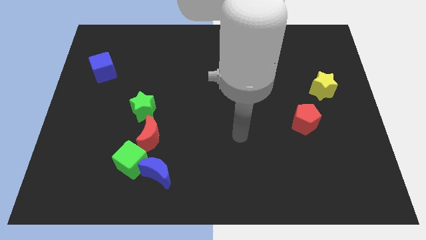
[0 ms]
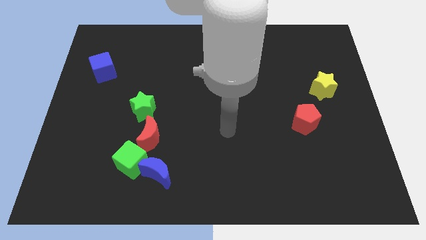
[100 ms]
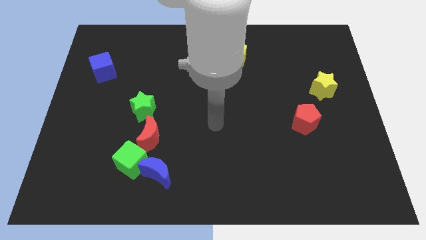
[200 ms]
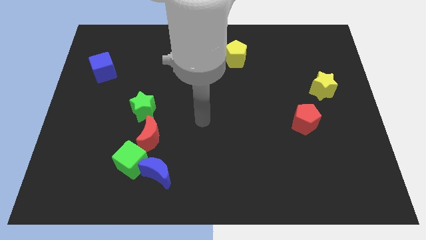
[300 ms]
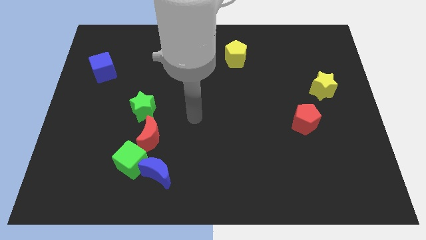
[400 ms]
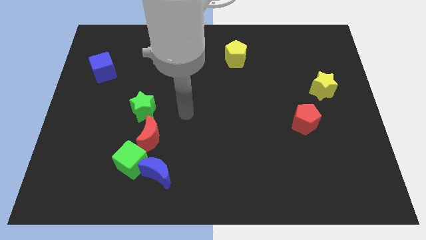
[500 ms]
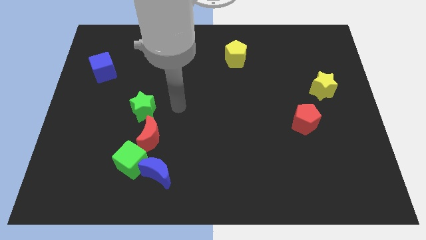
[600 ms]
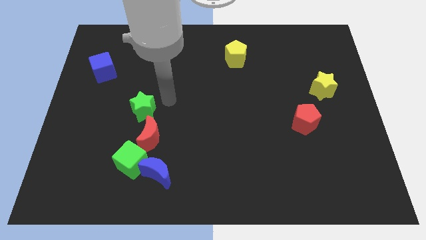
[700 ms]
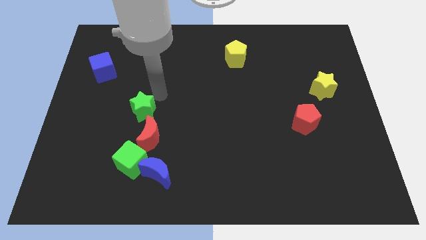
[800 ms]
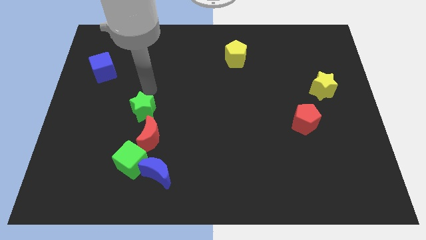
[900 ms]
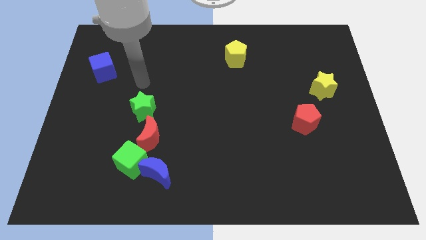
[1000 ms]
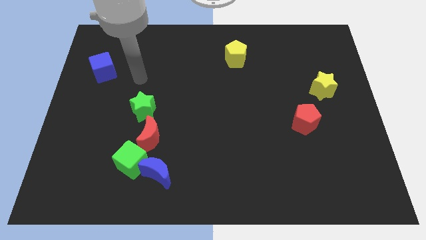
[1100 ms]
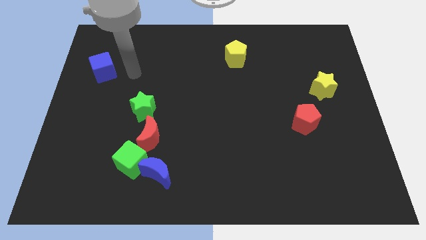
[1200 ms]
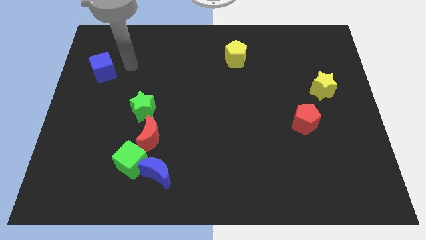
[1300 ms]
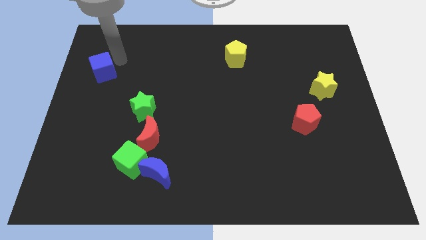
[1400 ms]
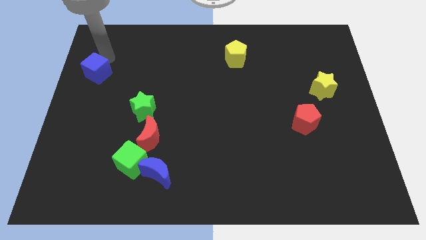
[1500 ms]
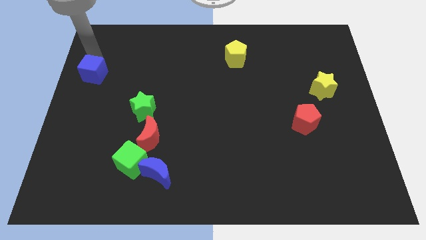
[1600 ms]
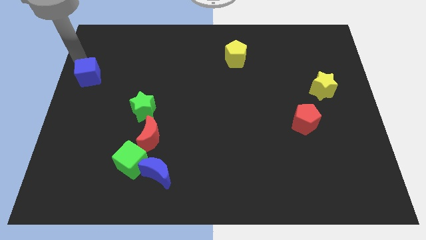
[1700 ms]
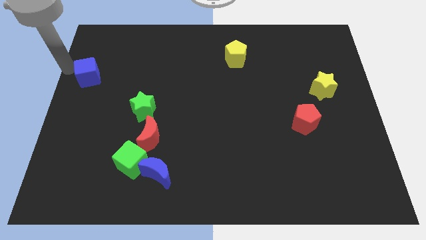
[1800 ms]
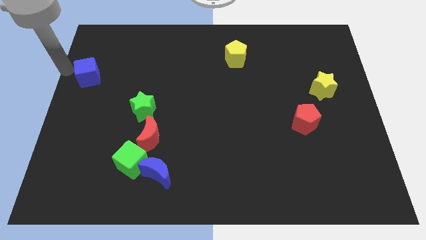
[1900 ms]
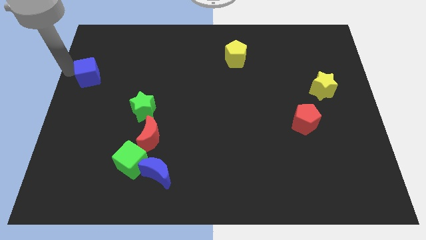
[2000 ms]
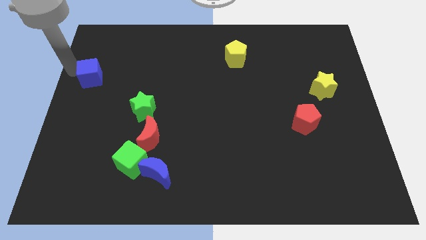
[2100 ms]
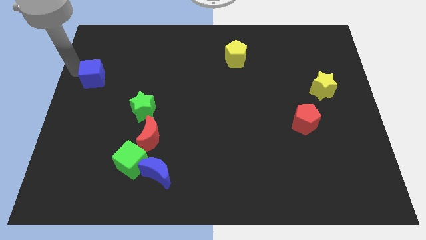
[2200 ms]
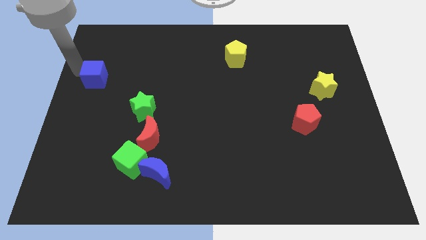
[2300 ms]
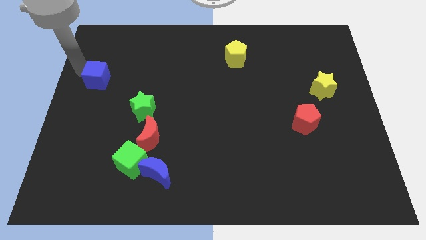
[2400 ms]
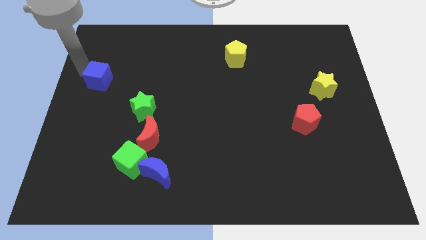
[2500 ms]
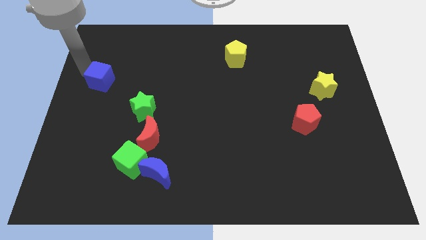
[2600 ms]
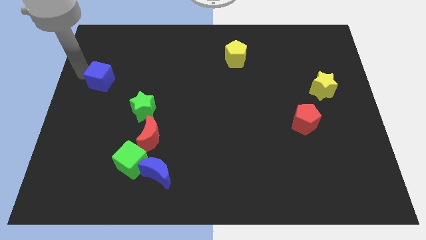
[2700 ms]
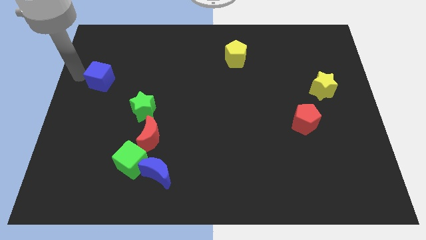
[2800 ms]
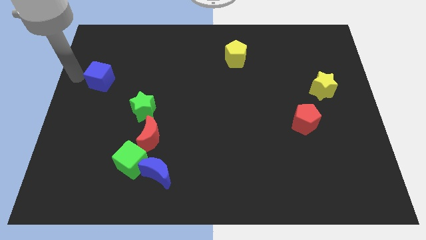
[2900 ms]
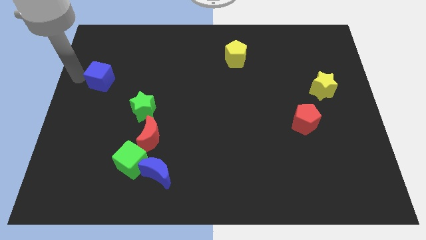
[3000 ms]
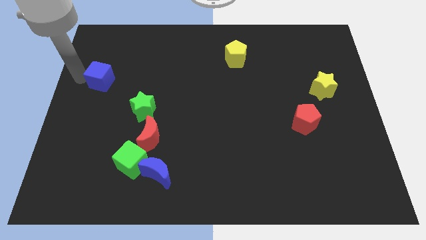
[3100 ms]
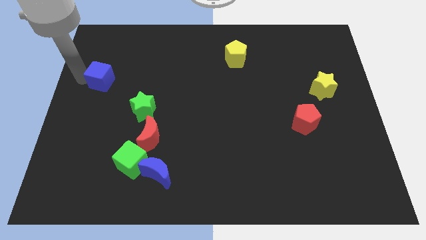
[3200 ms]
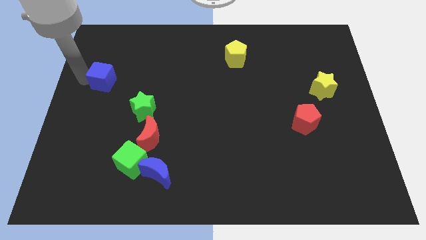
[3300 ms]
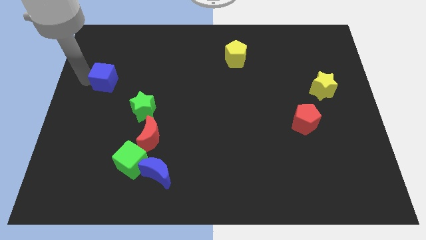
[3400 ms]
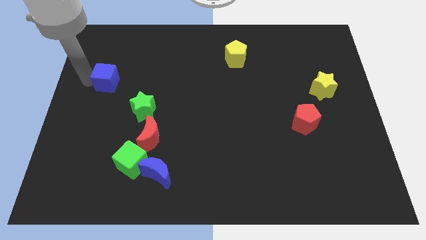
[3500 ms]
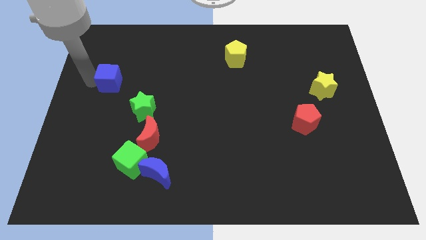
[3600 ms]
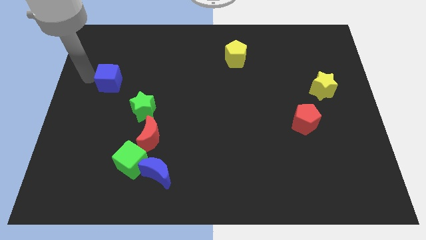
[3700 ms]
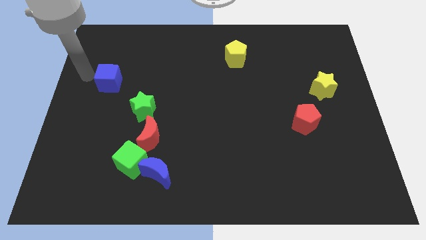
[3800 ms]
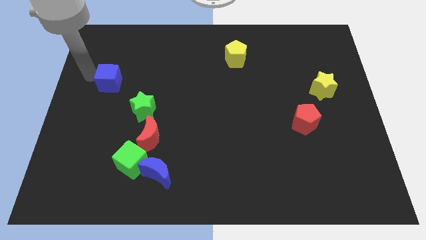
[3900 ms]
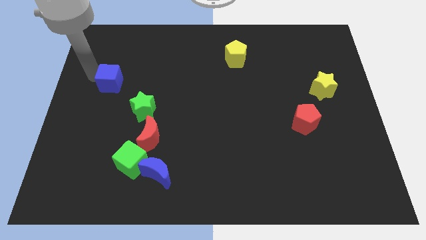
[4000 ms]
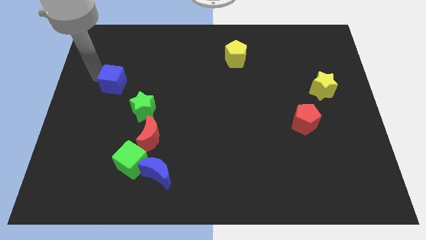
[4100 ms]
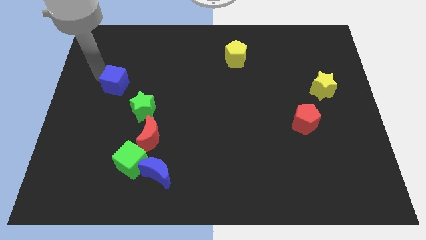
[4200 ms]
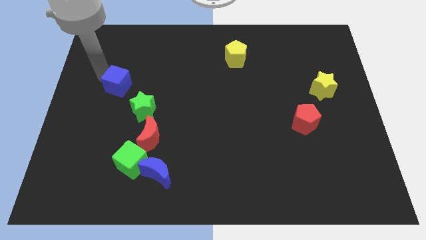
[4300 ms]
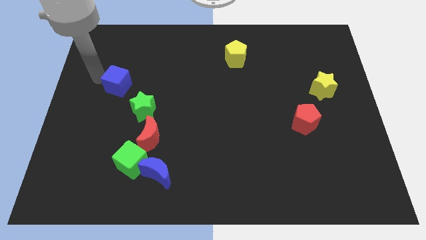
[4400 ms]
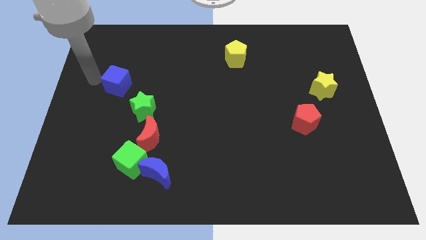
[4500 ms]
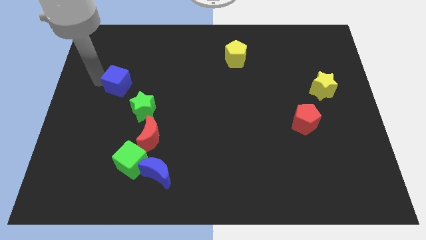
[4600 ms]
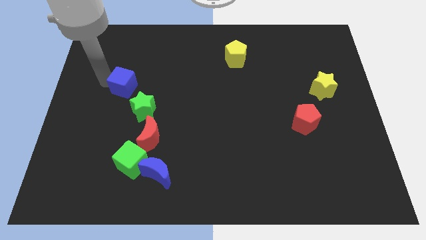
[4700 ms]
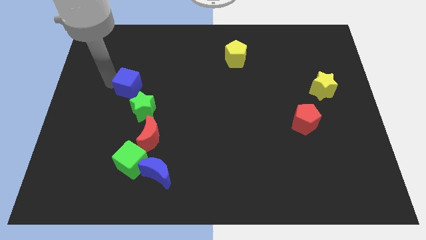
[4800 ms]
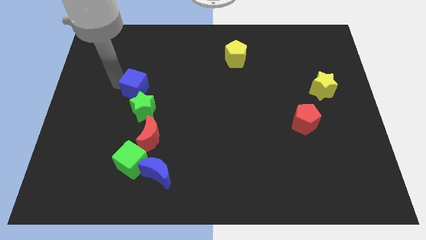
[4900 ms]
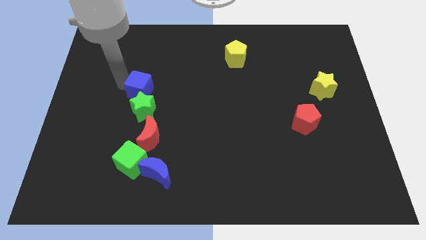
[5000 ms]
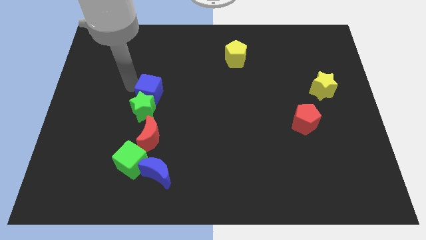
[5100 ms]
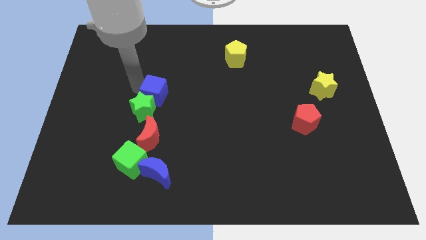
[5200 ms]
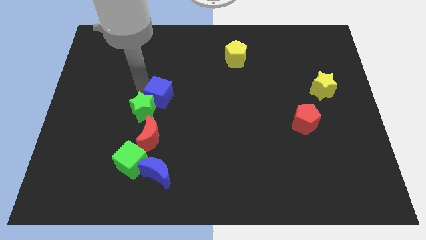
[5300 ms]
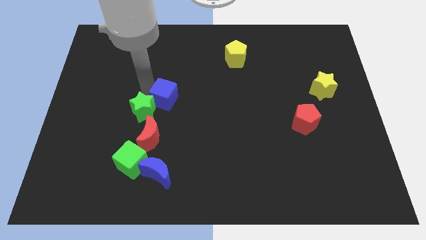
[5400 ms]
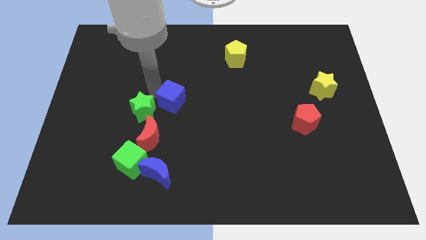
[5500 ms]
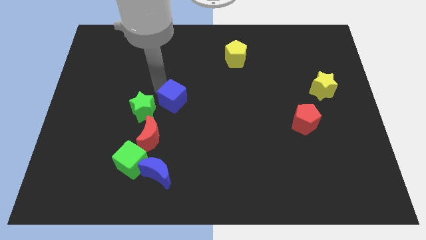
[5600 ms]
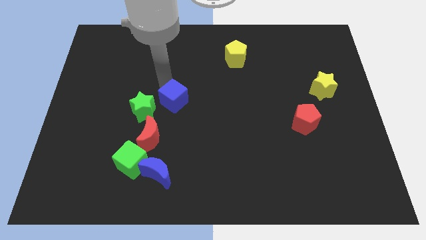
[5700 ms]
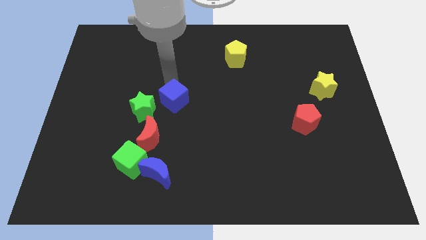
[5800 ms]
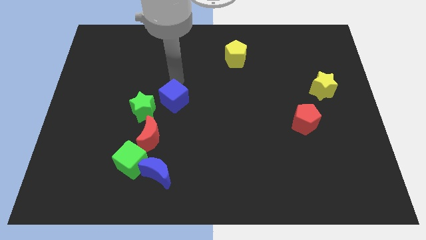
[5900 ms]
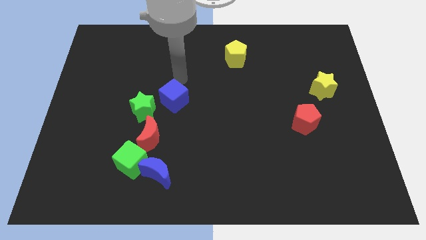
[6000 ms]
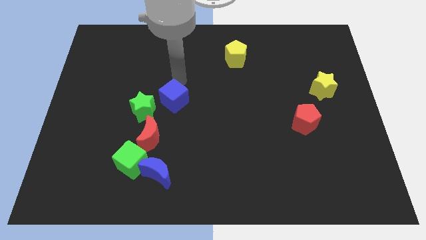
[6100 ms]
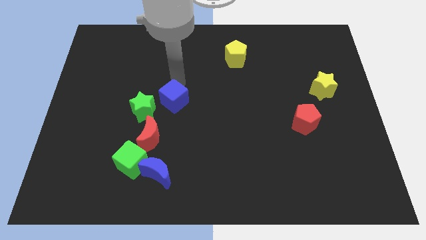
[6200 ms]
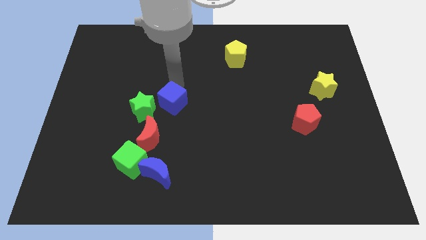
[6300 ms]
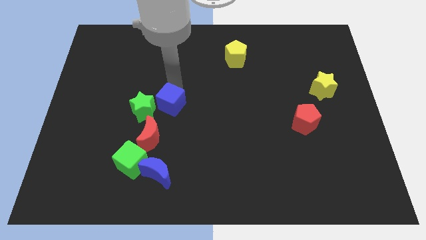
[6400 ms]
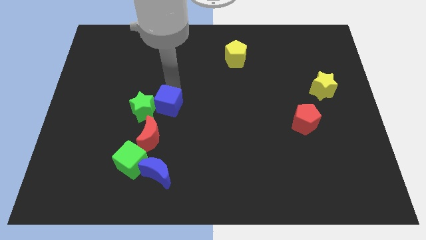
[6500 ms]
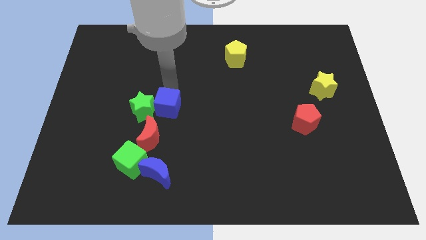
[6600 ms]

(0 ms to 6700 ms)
push the blue cube to the bottom right side of the green star

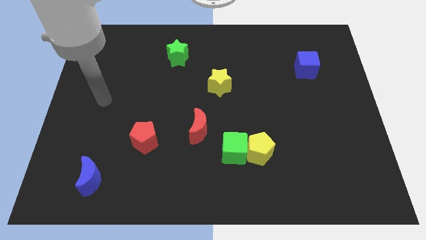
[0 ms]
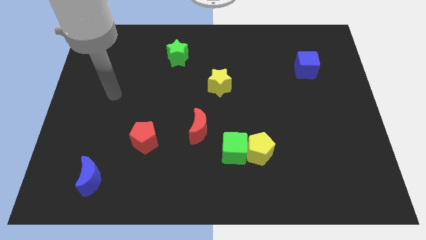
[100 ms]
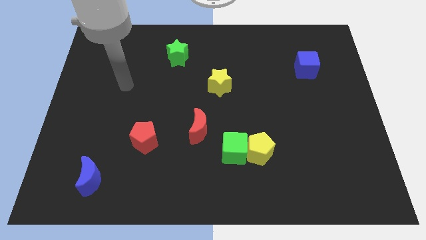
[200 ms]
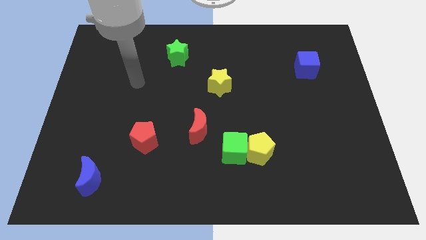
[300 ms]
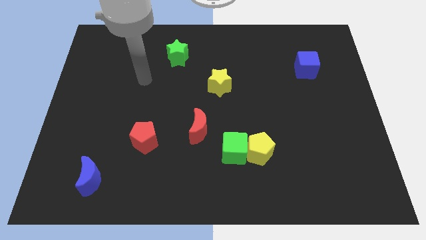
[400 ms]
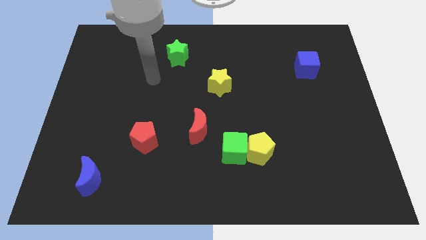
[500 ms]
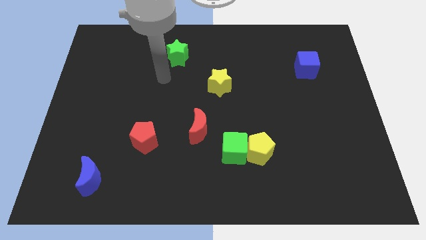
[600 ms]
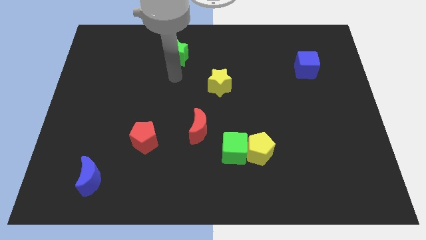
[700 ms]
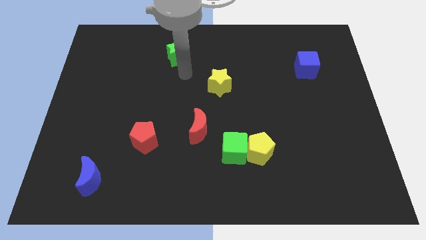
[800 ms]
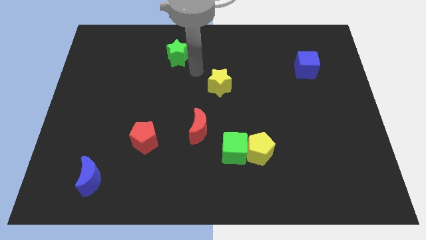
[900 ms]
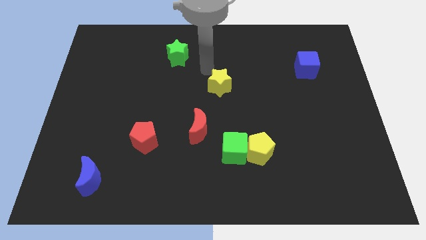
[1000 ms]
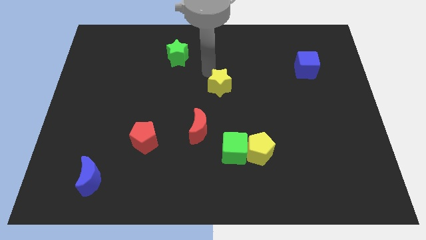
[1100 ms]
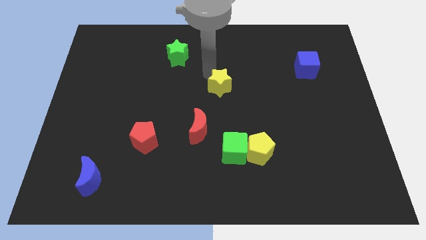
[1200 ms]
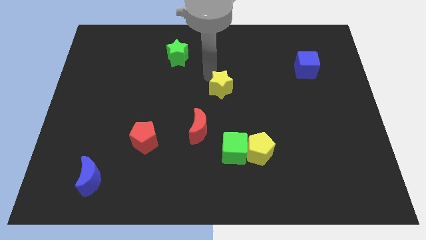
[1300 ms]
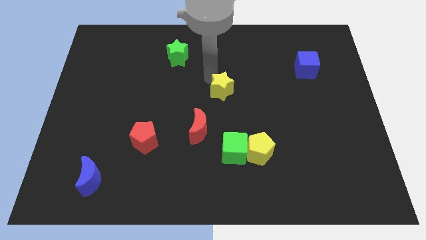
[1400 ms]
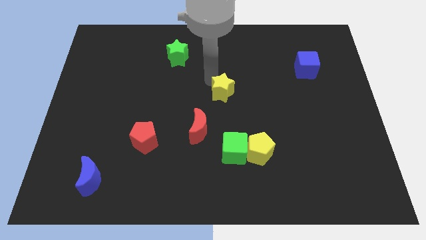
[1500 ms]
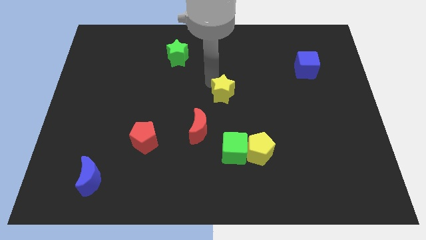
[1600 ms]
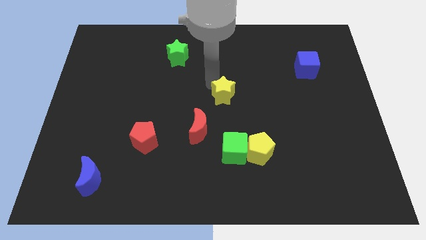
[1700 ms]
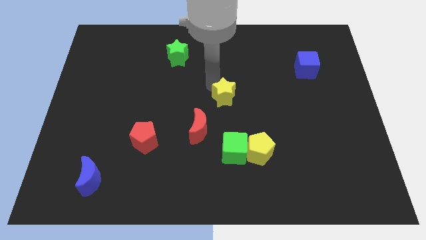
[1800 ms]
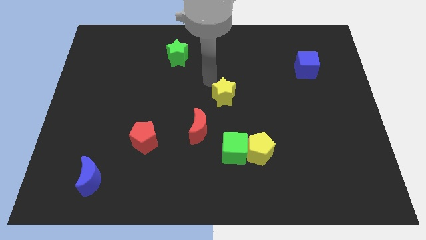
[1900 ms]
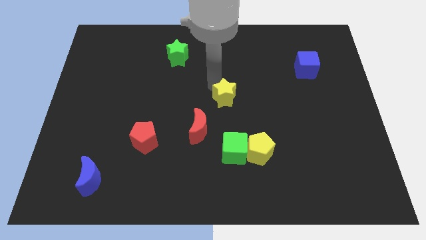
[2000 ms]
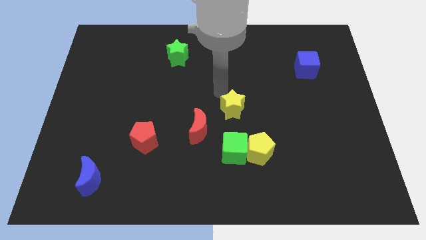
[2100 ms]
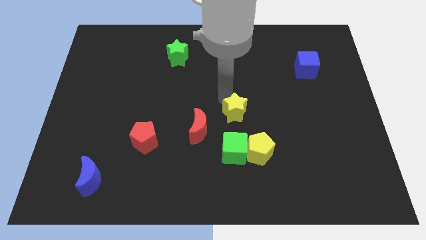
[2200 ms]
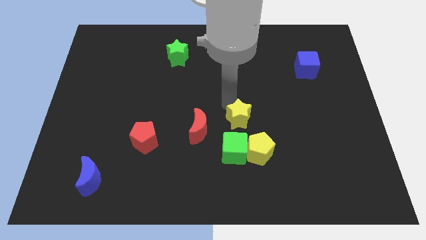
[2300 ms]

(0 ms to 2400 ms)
push the yellow star to the top right of the green cube
